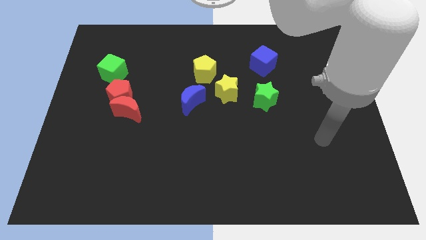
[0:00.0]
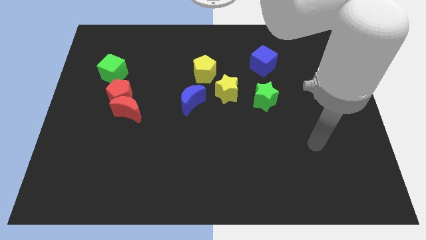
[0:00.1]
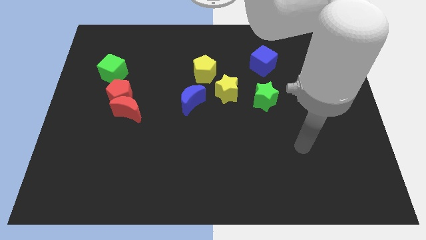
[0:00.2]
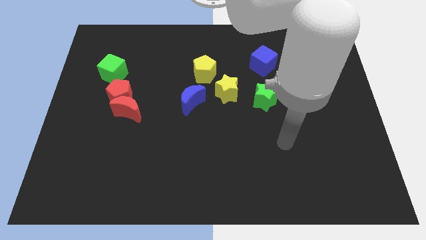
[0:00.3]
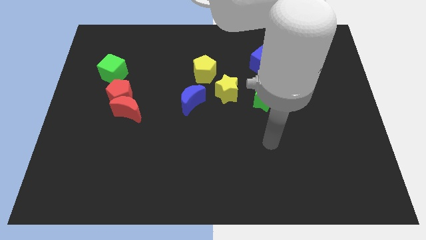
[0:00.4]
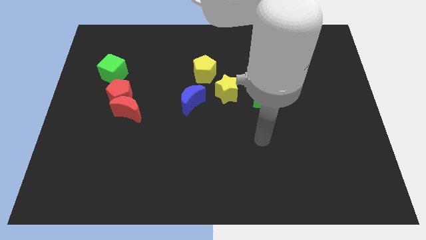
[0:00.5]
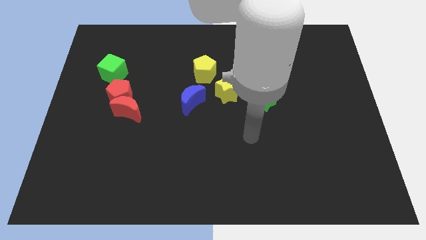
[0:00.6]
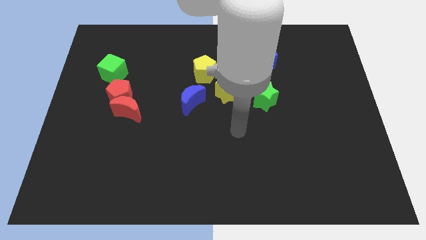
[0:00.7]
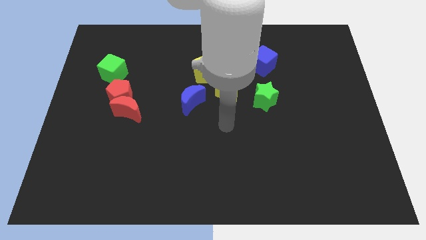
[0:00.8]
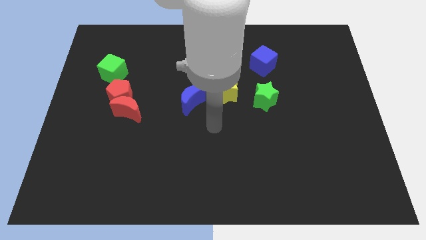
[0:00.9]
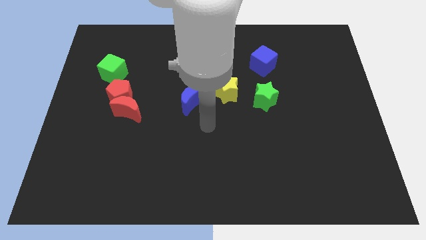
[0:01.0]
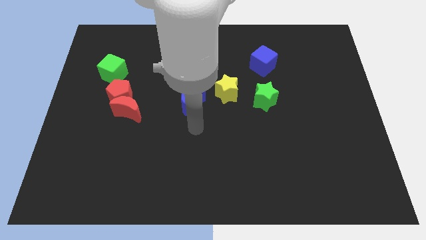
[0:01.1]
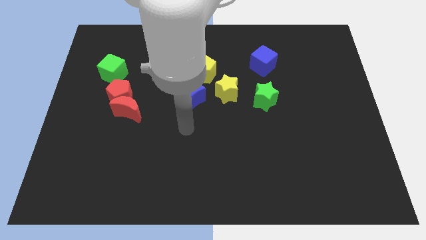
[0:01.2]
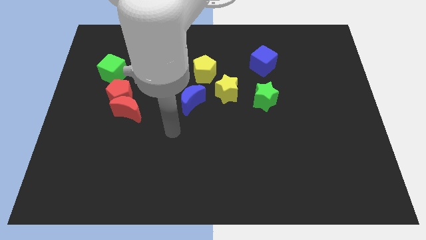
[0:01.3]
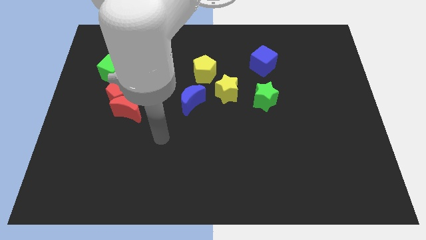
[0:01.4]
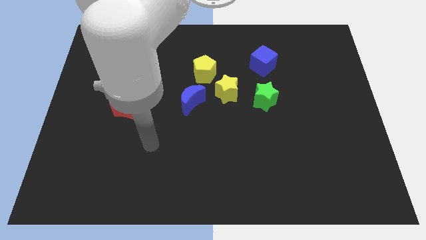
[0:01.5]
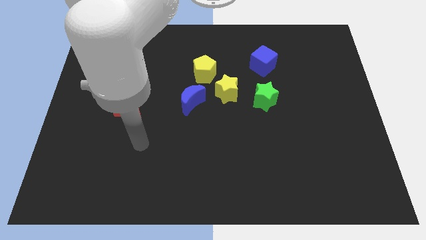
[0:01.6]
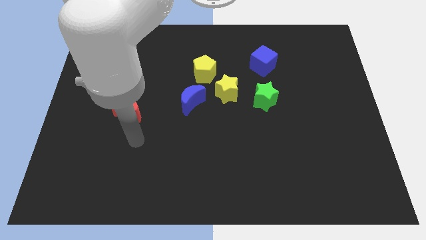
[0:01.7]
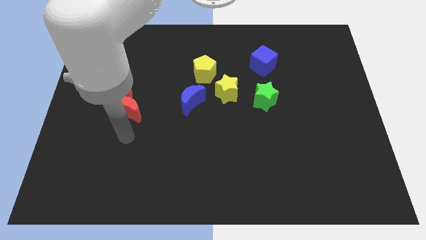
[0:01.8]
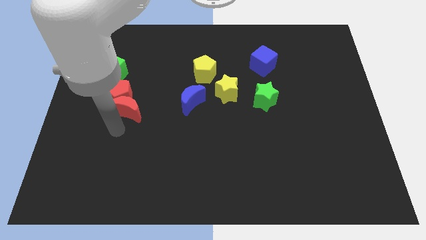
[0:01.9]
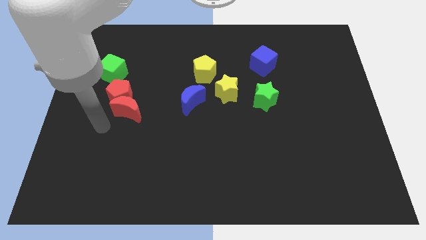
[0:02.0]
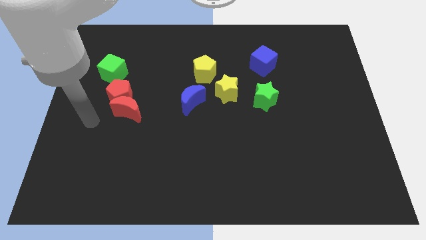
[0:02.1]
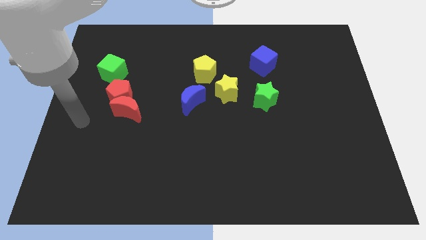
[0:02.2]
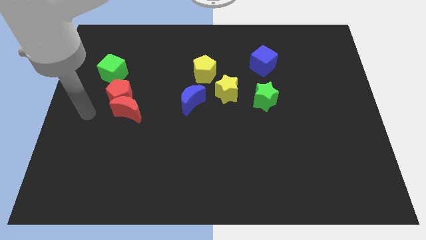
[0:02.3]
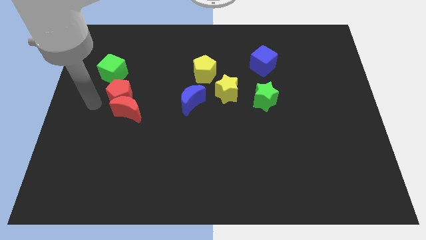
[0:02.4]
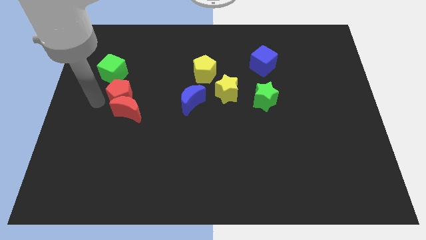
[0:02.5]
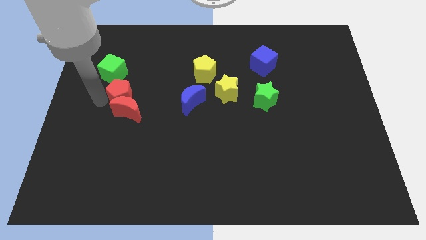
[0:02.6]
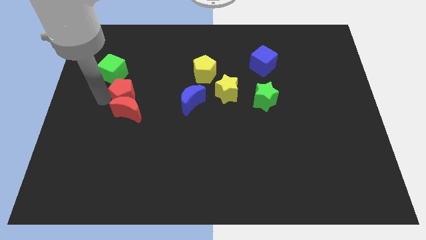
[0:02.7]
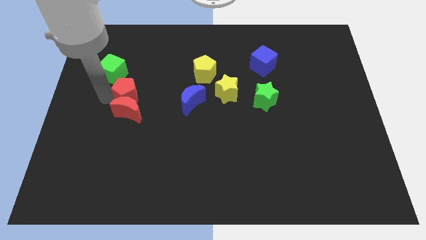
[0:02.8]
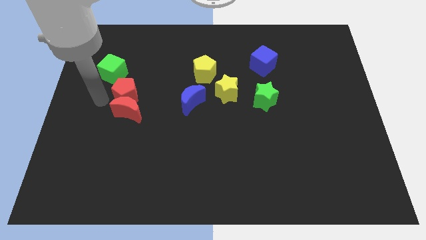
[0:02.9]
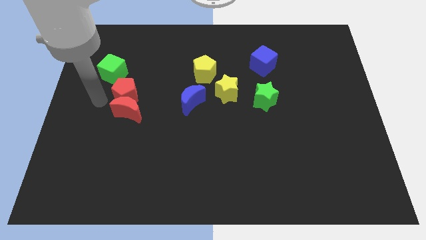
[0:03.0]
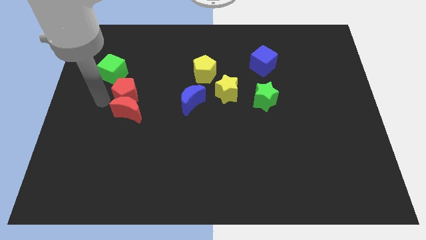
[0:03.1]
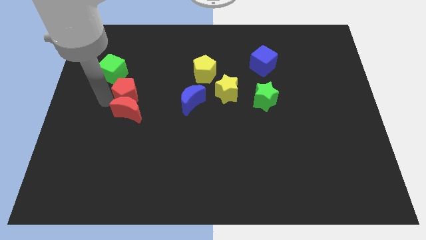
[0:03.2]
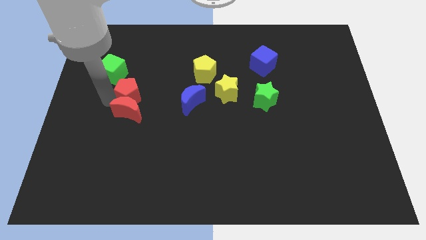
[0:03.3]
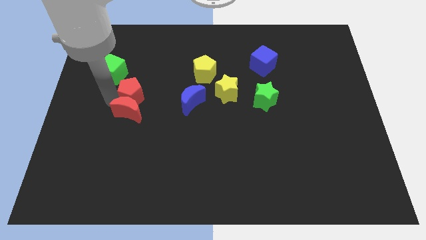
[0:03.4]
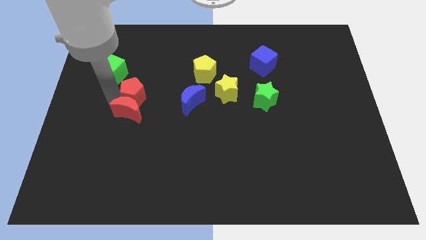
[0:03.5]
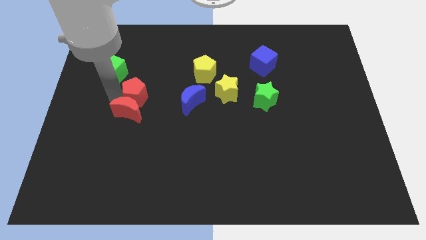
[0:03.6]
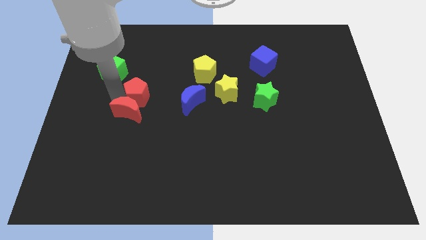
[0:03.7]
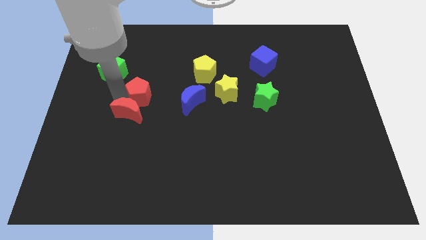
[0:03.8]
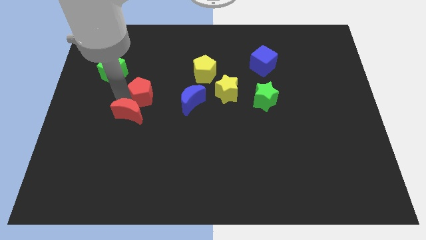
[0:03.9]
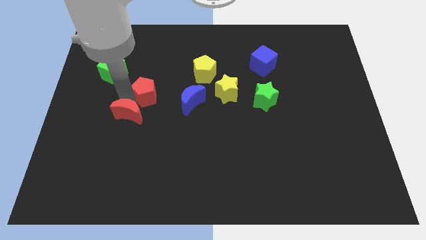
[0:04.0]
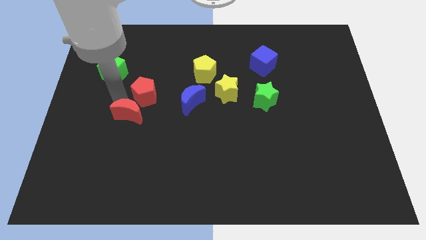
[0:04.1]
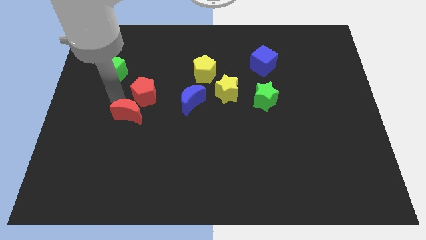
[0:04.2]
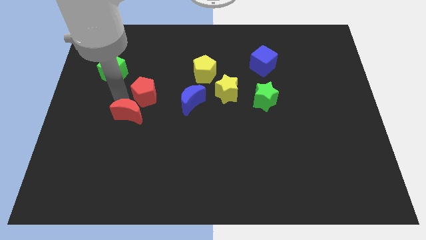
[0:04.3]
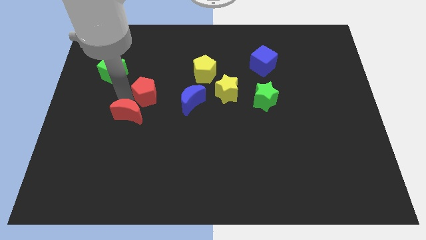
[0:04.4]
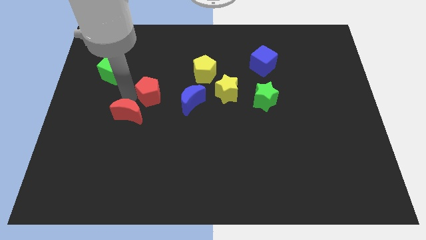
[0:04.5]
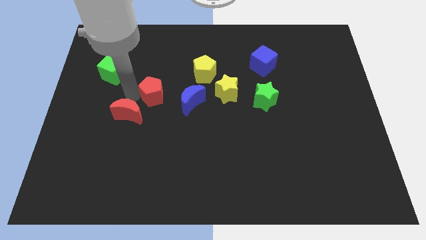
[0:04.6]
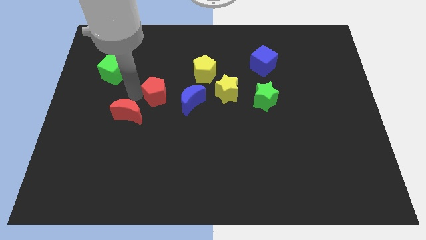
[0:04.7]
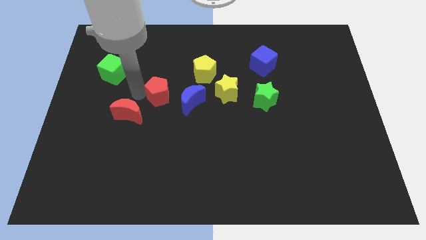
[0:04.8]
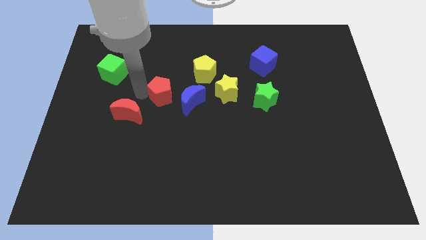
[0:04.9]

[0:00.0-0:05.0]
push the red pentagon to the center

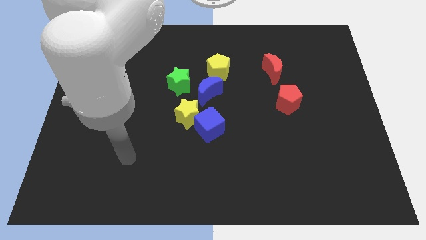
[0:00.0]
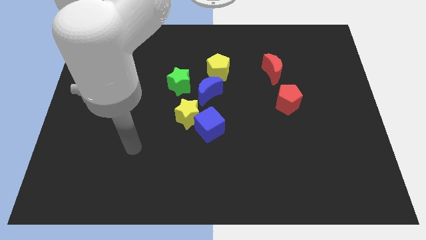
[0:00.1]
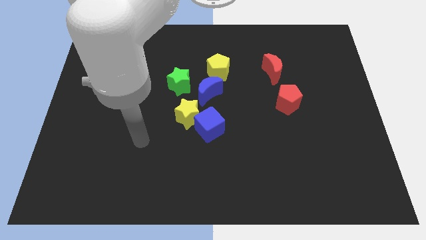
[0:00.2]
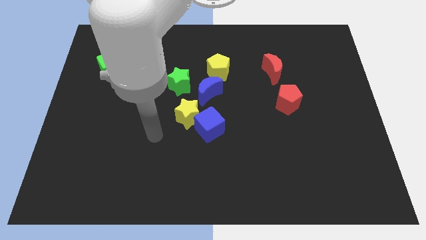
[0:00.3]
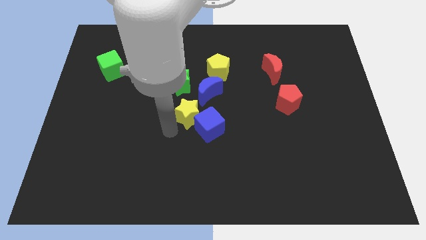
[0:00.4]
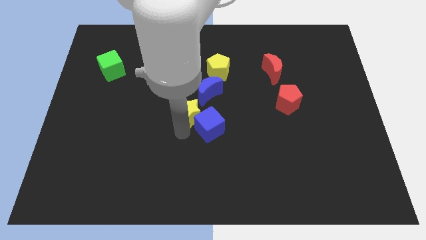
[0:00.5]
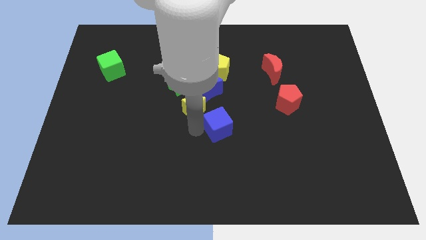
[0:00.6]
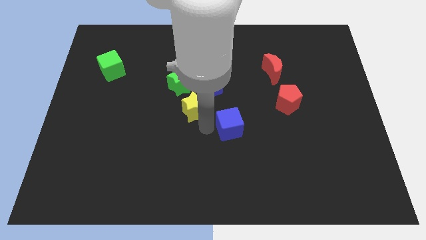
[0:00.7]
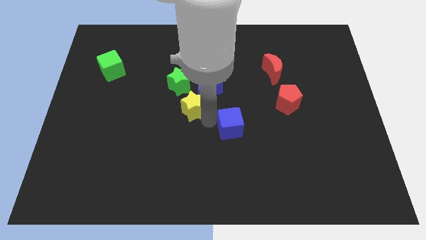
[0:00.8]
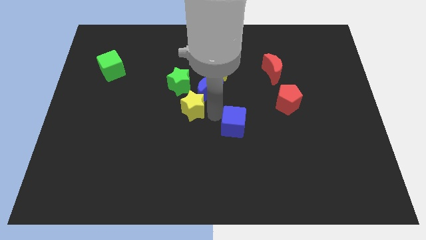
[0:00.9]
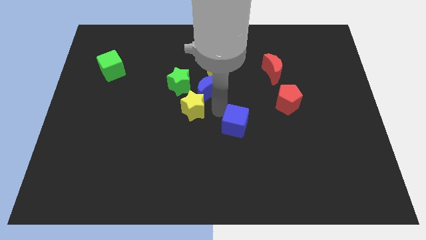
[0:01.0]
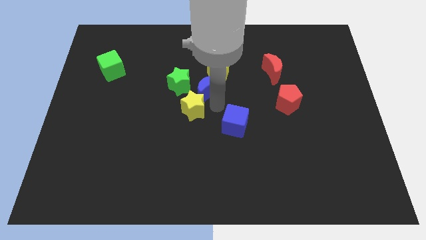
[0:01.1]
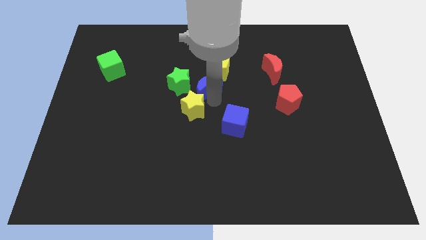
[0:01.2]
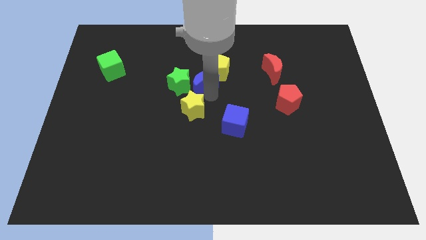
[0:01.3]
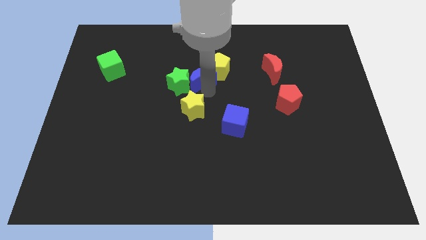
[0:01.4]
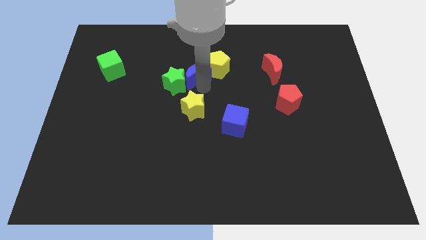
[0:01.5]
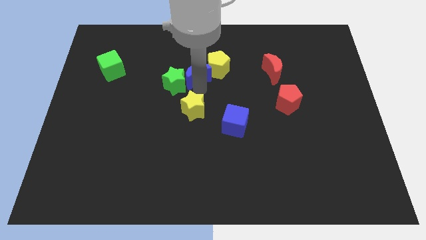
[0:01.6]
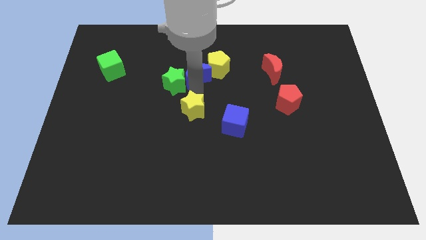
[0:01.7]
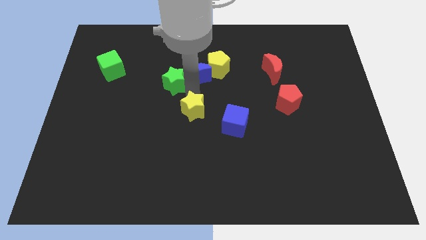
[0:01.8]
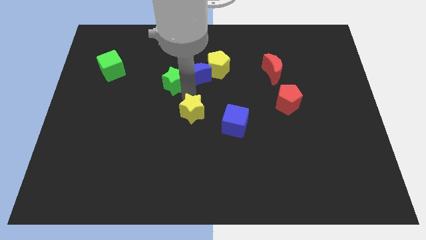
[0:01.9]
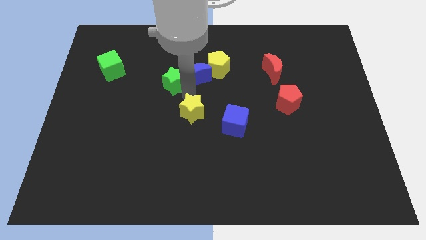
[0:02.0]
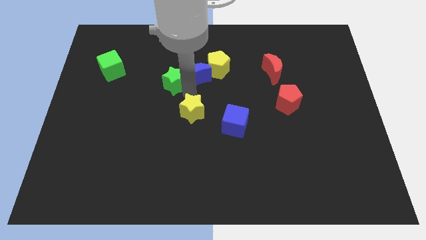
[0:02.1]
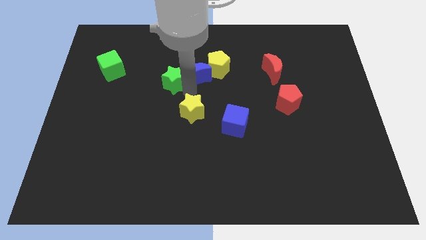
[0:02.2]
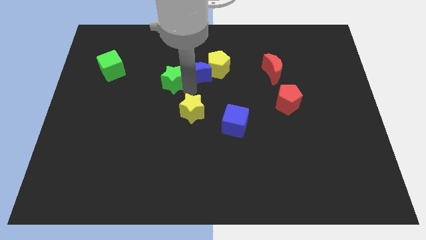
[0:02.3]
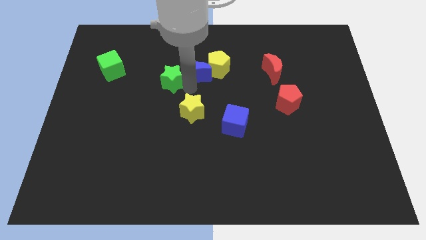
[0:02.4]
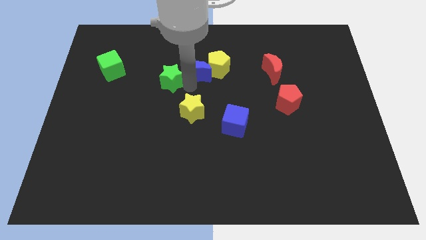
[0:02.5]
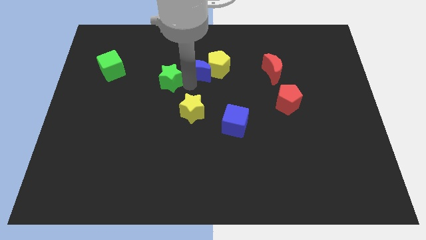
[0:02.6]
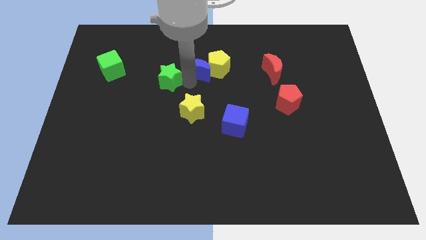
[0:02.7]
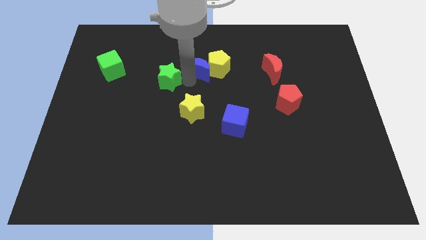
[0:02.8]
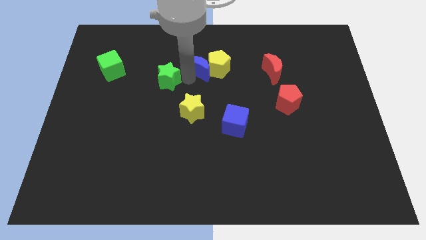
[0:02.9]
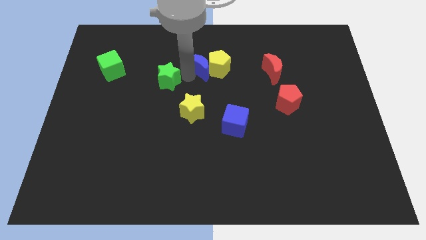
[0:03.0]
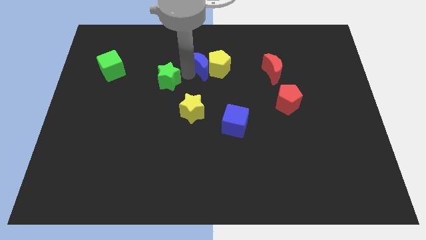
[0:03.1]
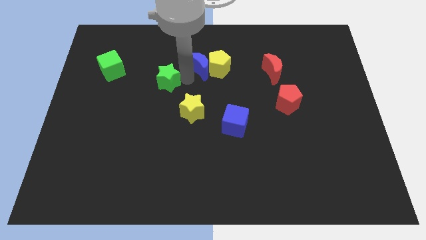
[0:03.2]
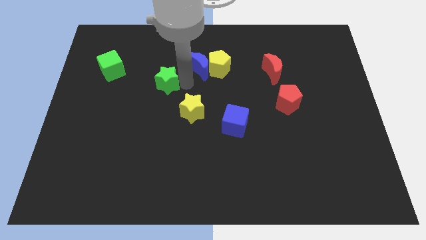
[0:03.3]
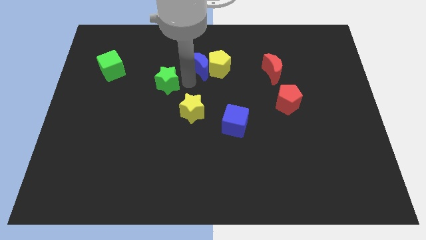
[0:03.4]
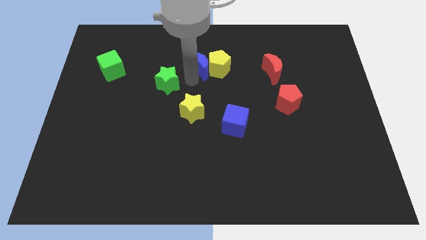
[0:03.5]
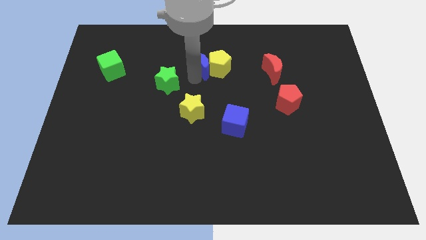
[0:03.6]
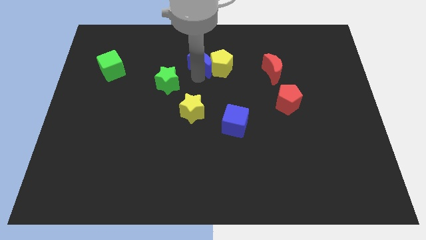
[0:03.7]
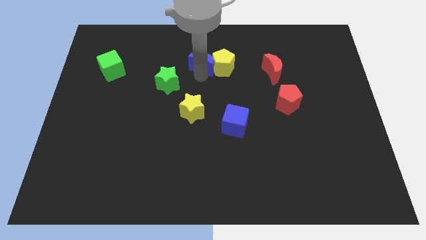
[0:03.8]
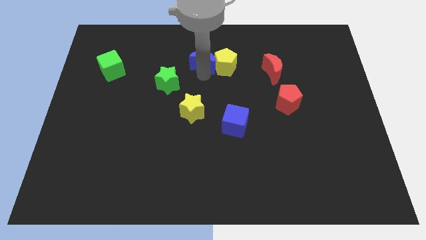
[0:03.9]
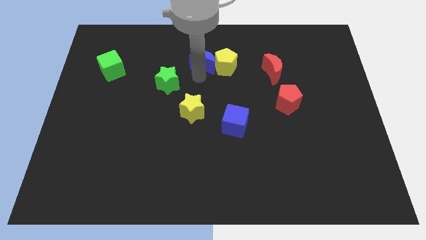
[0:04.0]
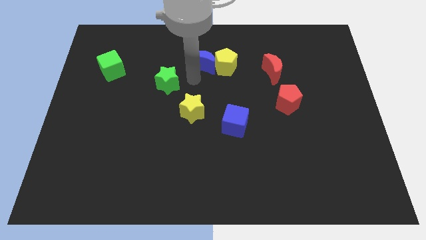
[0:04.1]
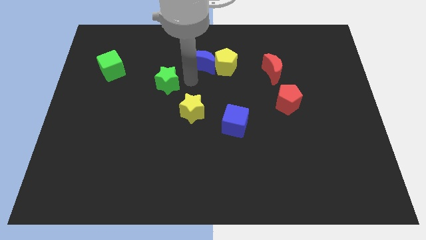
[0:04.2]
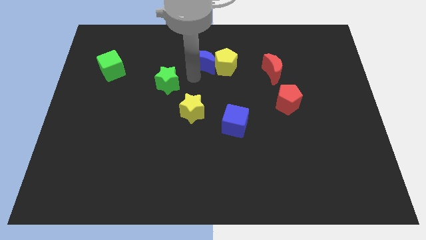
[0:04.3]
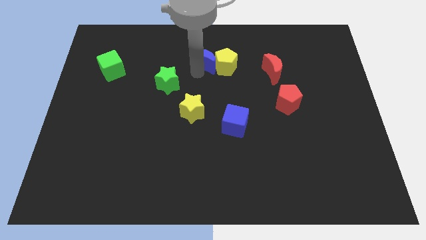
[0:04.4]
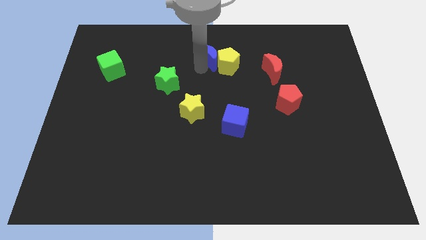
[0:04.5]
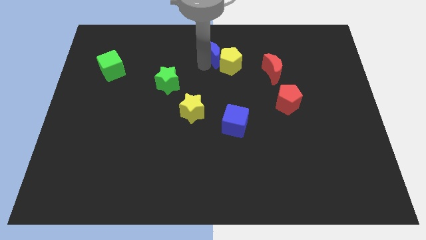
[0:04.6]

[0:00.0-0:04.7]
move the blue moon to the towards your base
